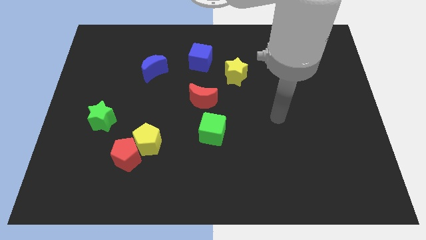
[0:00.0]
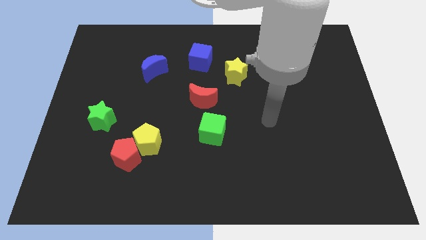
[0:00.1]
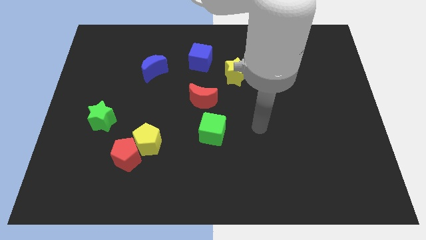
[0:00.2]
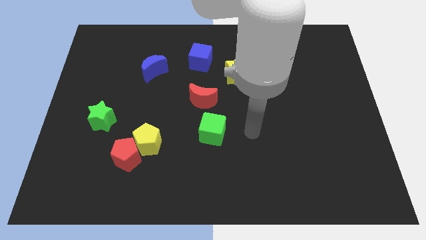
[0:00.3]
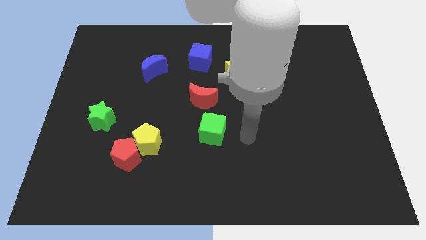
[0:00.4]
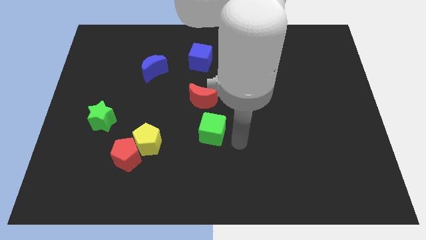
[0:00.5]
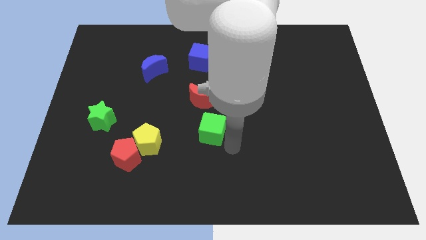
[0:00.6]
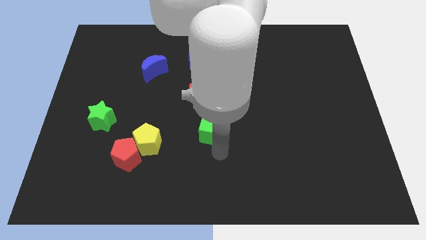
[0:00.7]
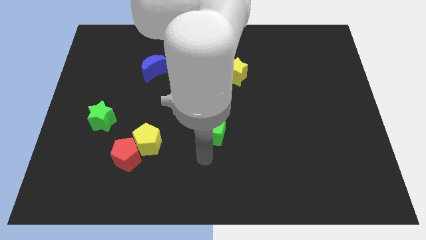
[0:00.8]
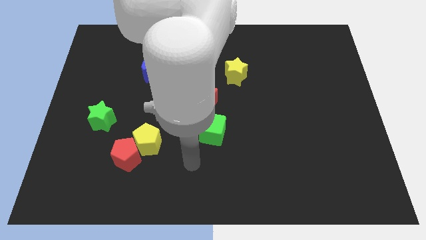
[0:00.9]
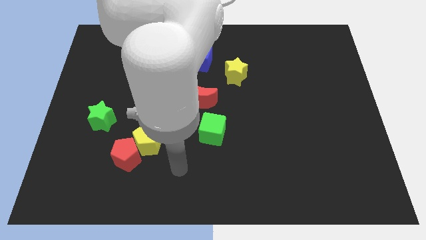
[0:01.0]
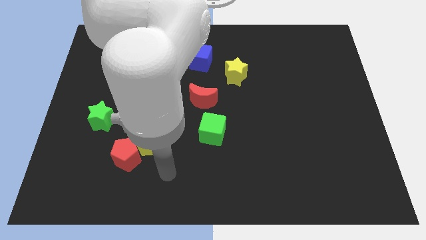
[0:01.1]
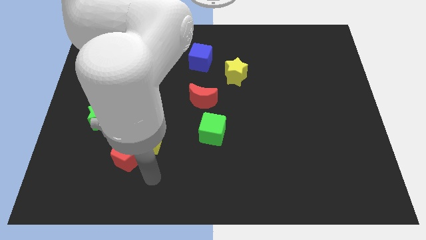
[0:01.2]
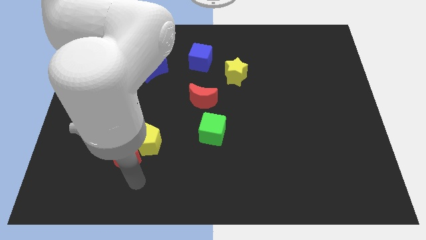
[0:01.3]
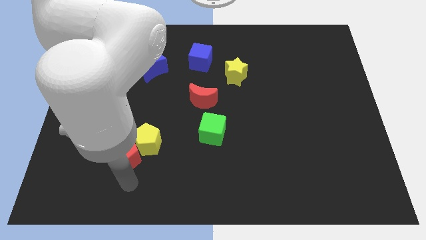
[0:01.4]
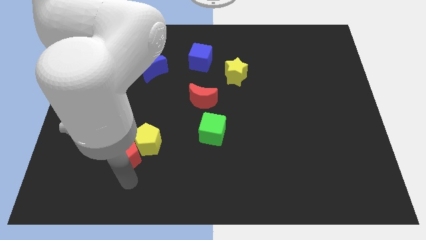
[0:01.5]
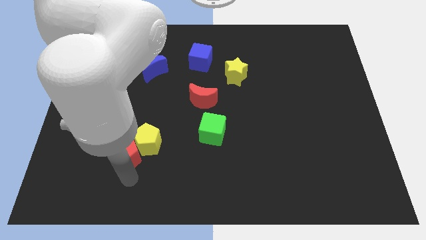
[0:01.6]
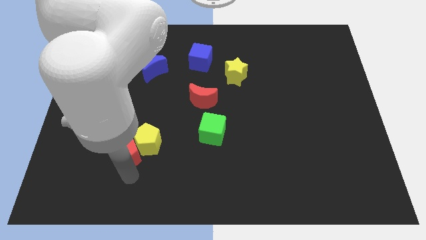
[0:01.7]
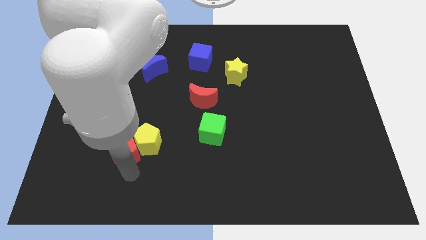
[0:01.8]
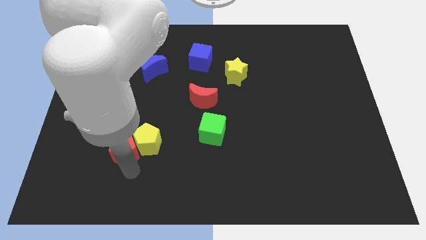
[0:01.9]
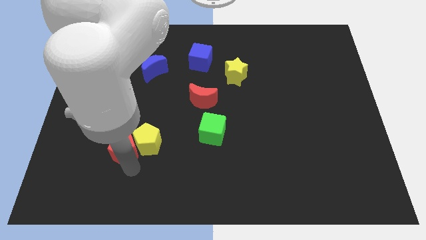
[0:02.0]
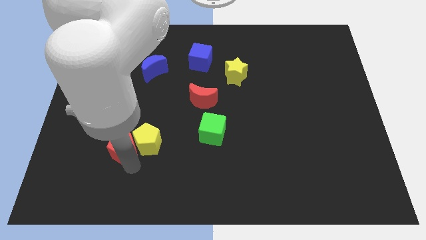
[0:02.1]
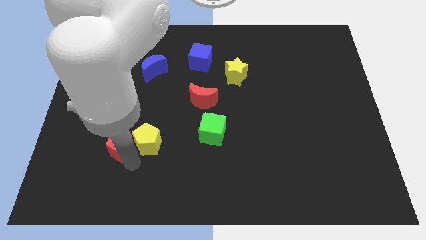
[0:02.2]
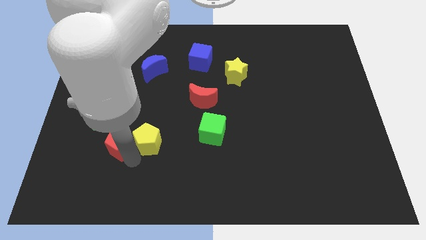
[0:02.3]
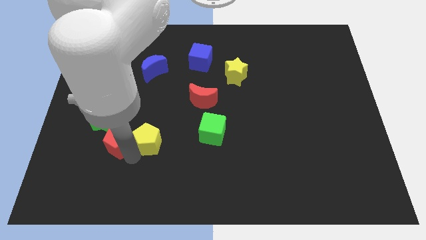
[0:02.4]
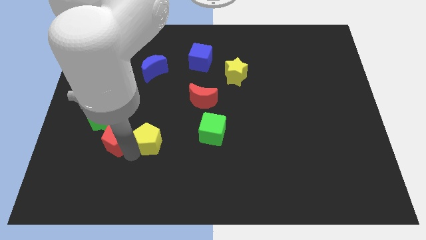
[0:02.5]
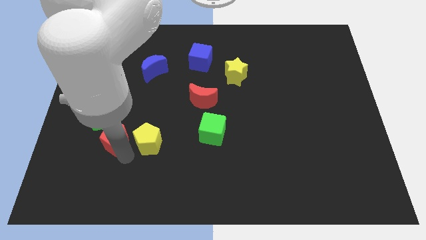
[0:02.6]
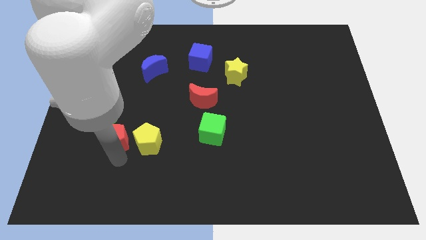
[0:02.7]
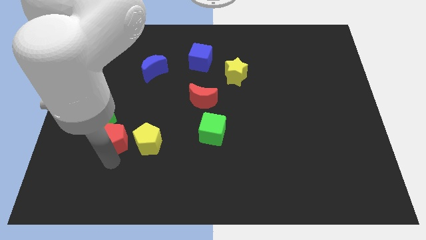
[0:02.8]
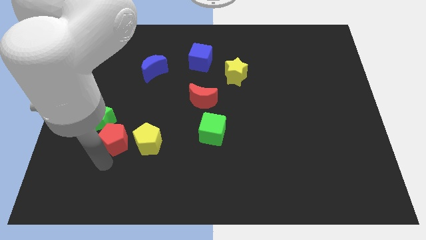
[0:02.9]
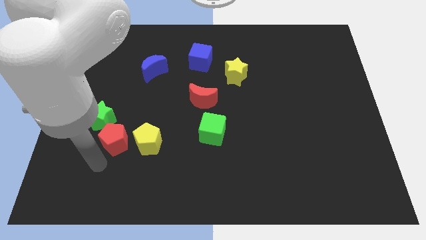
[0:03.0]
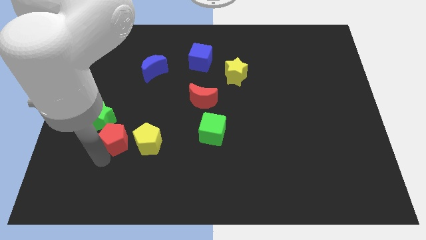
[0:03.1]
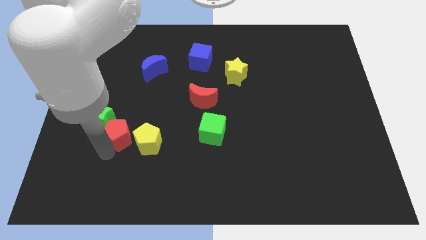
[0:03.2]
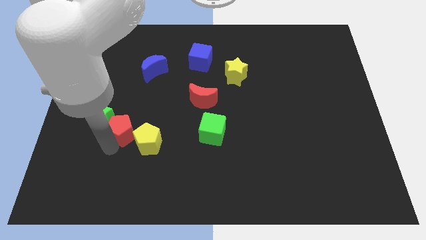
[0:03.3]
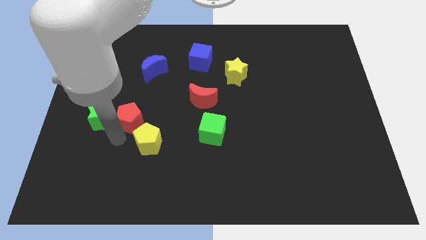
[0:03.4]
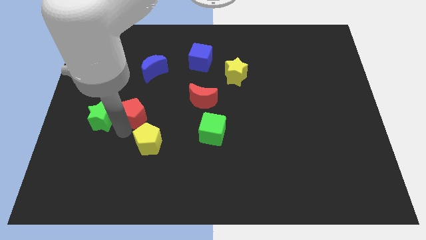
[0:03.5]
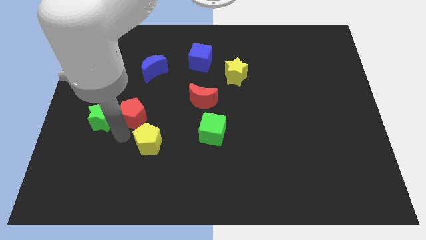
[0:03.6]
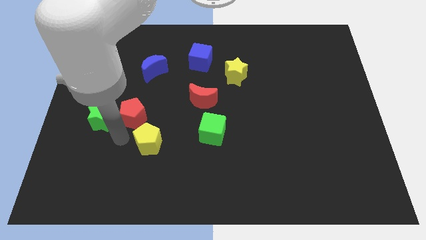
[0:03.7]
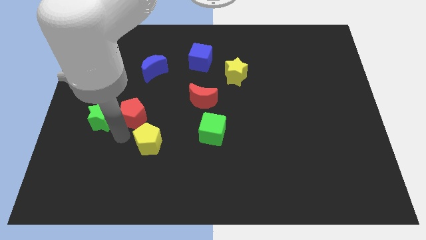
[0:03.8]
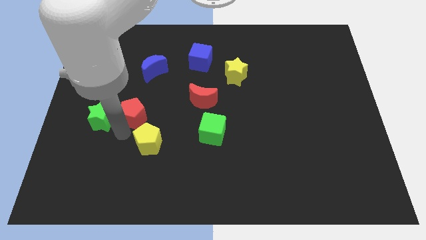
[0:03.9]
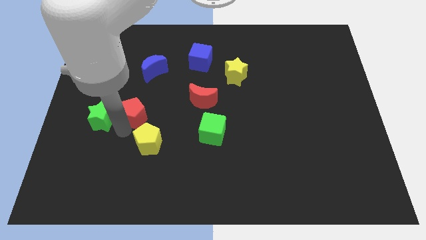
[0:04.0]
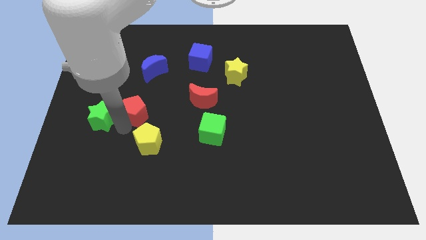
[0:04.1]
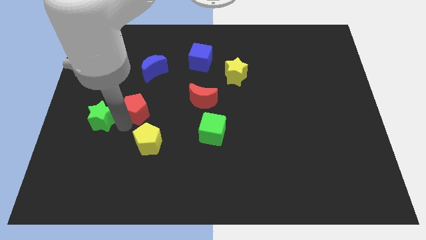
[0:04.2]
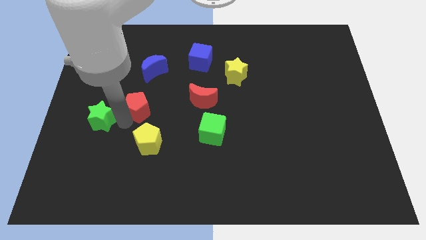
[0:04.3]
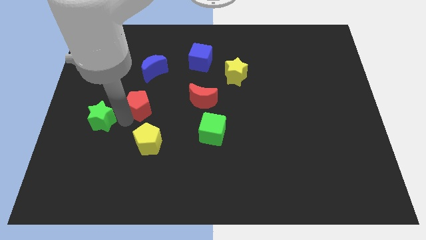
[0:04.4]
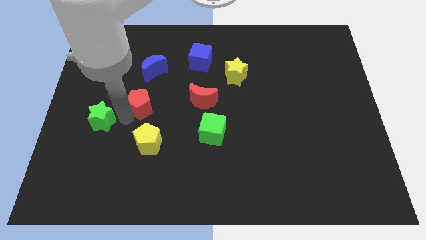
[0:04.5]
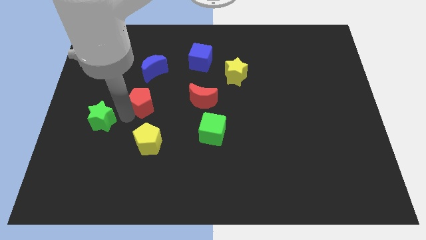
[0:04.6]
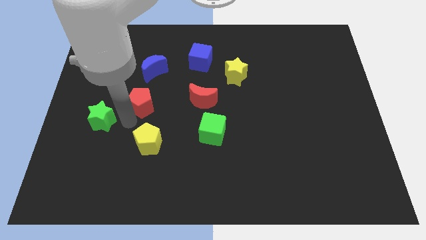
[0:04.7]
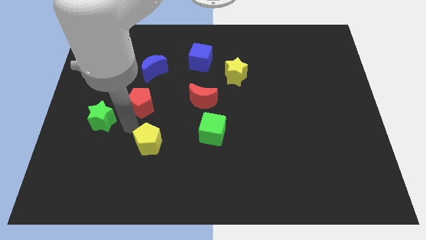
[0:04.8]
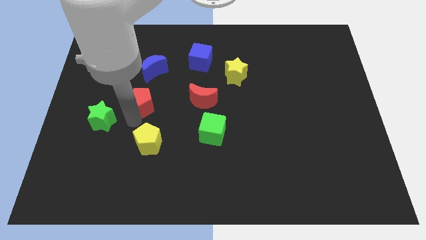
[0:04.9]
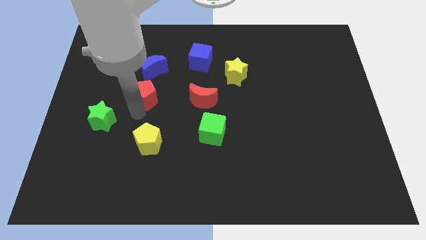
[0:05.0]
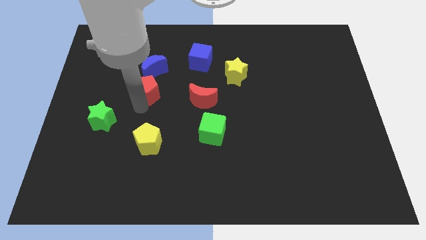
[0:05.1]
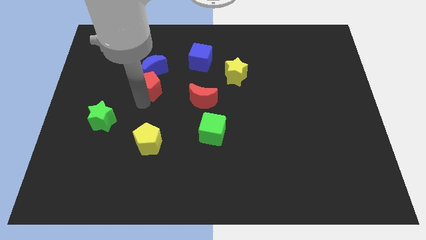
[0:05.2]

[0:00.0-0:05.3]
push the red pentagon towards the blue moon

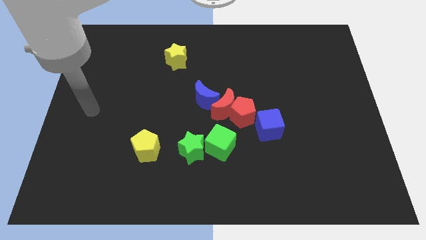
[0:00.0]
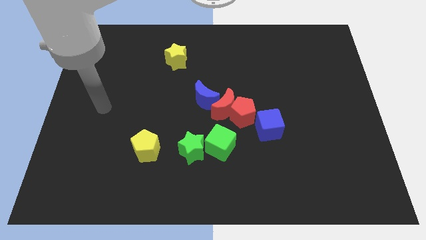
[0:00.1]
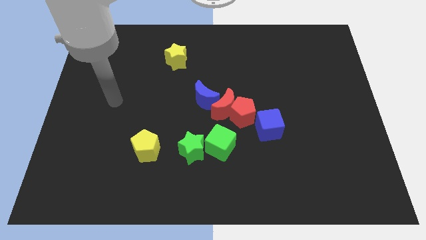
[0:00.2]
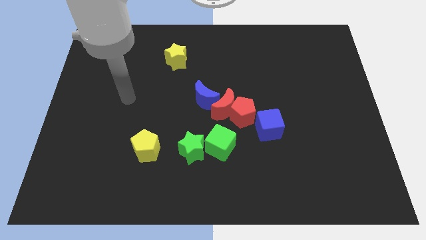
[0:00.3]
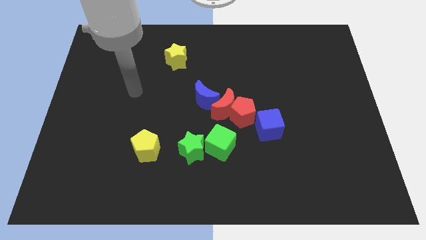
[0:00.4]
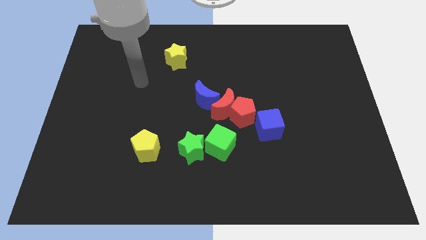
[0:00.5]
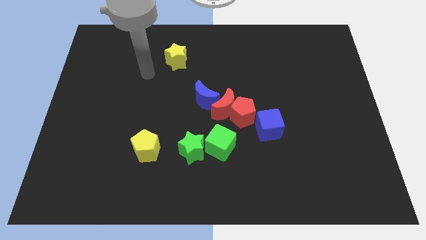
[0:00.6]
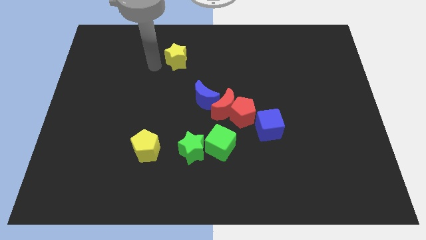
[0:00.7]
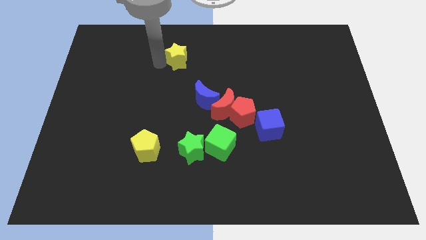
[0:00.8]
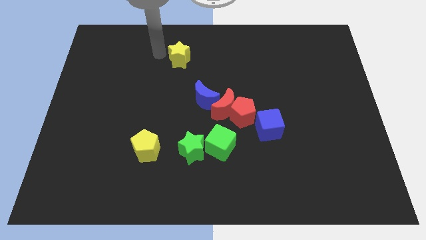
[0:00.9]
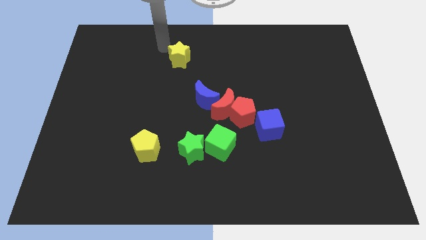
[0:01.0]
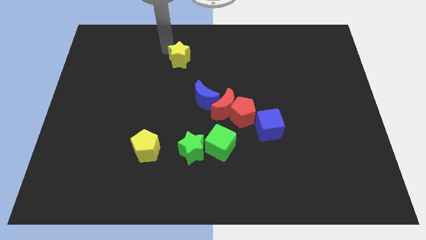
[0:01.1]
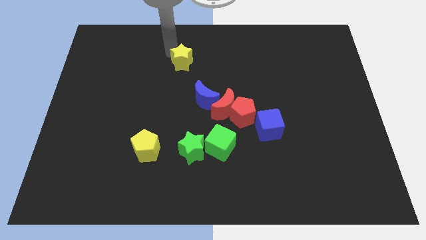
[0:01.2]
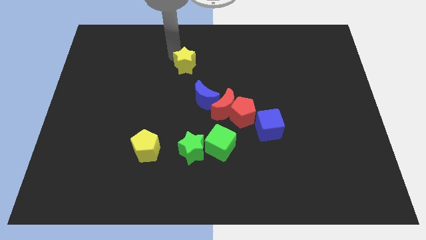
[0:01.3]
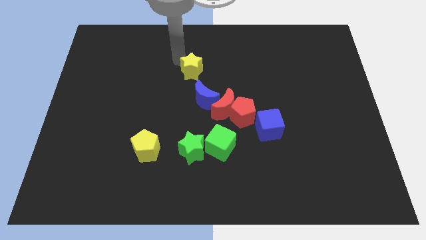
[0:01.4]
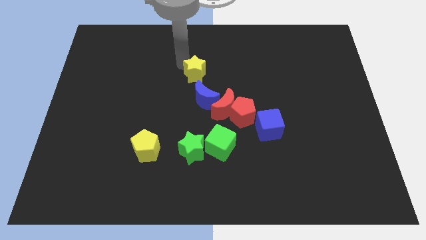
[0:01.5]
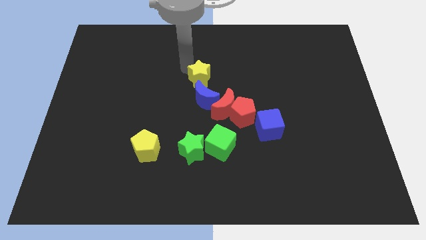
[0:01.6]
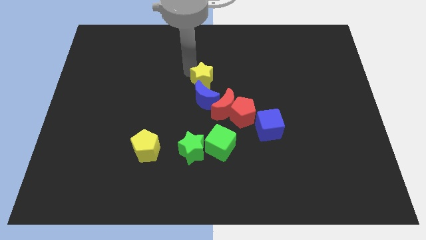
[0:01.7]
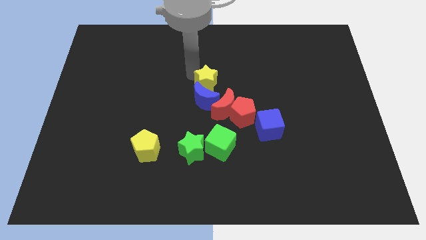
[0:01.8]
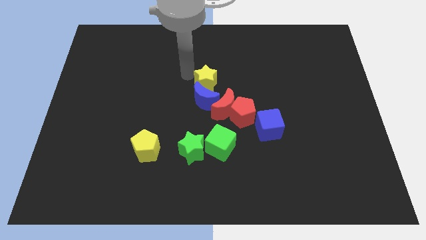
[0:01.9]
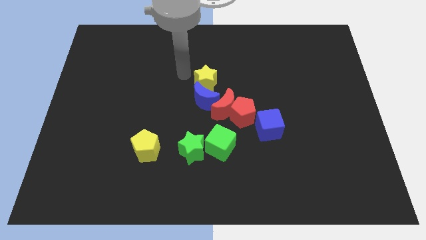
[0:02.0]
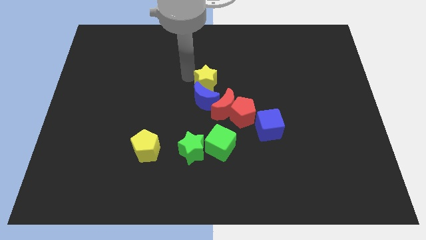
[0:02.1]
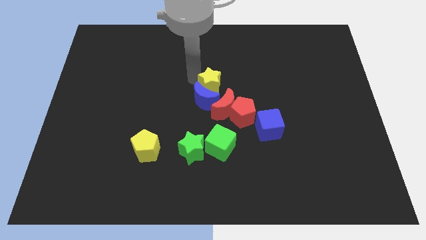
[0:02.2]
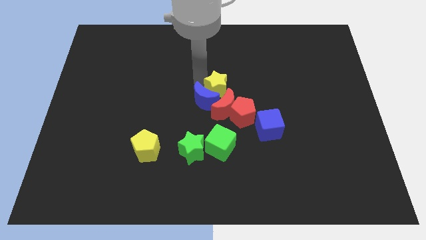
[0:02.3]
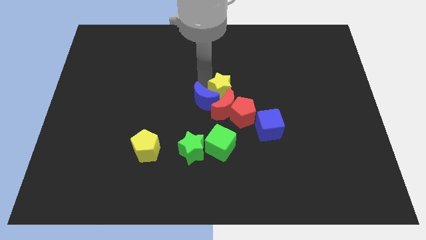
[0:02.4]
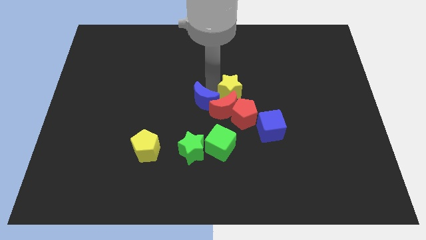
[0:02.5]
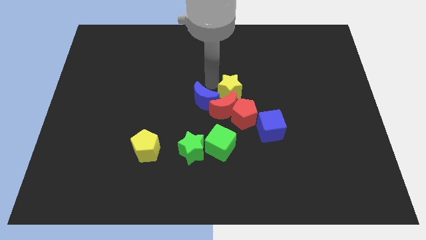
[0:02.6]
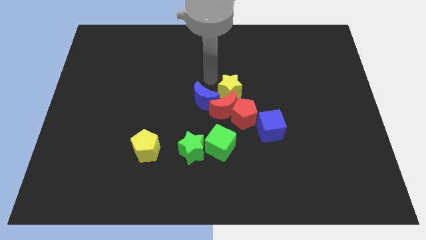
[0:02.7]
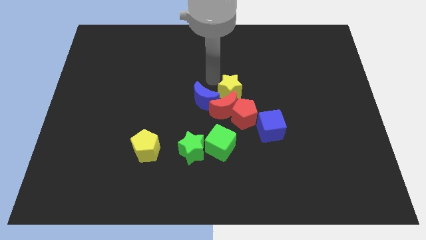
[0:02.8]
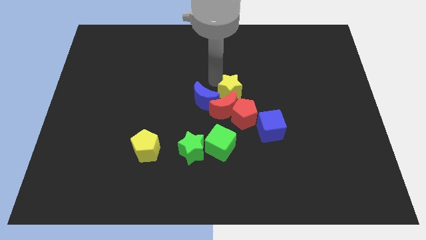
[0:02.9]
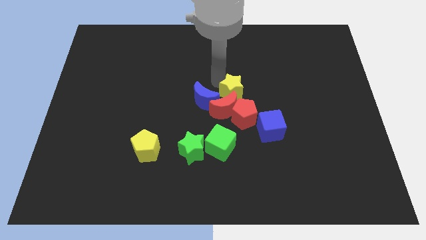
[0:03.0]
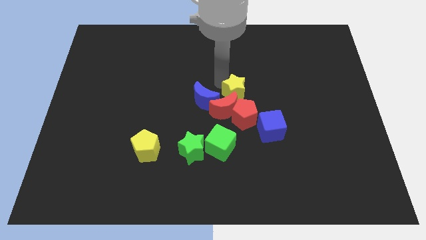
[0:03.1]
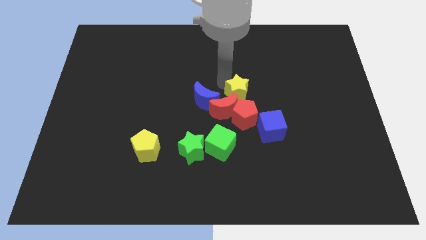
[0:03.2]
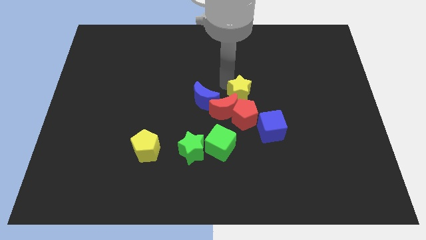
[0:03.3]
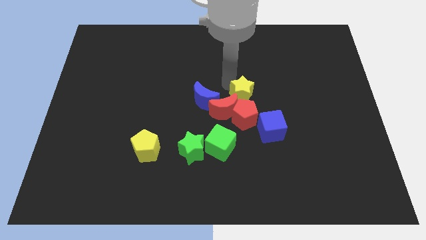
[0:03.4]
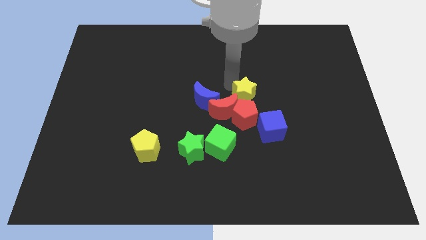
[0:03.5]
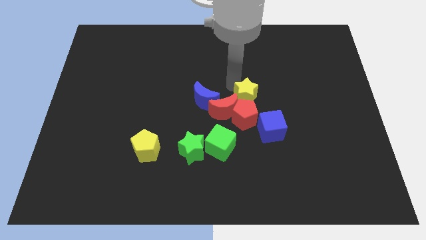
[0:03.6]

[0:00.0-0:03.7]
push the yellow star to the red pentagon
